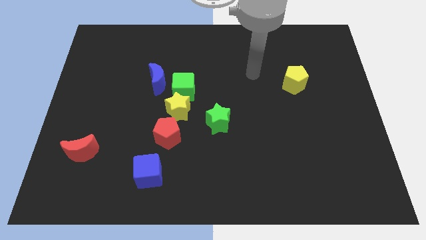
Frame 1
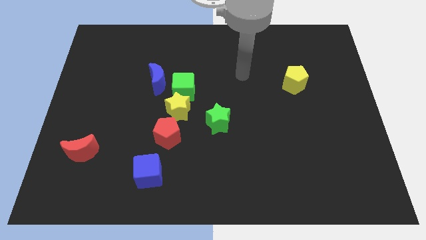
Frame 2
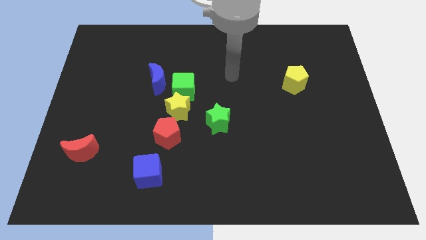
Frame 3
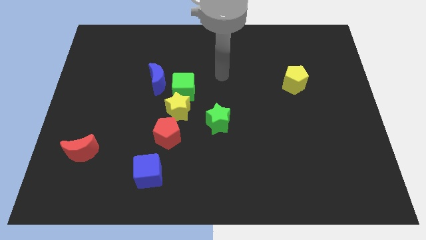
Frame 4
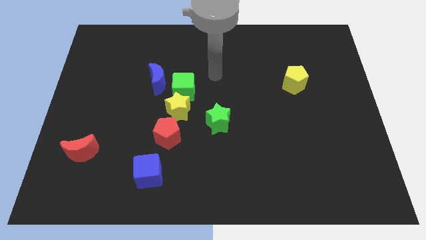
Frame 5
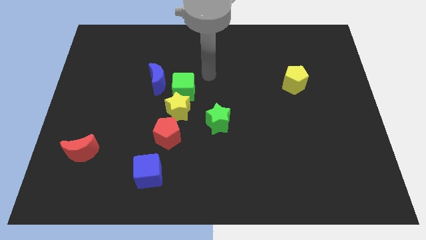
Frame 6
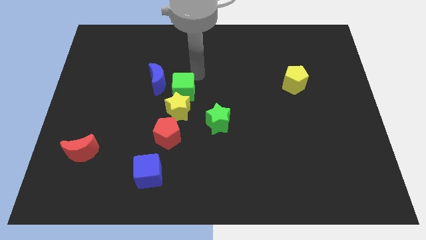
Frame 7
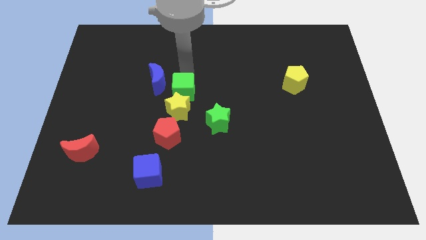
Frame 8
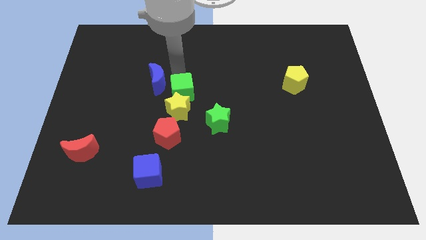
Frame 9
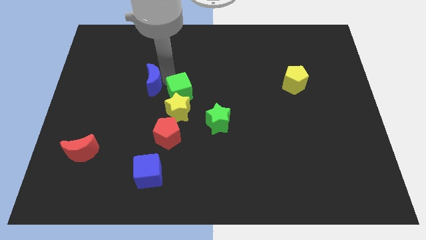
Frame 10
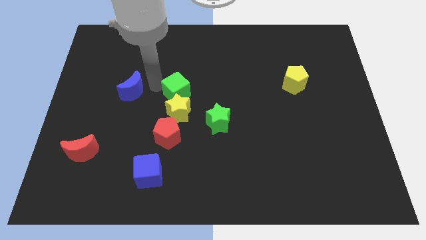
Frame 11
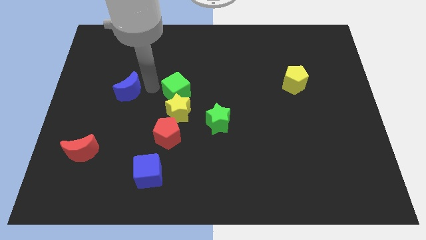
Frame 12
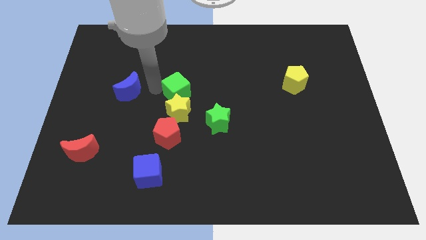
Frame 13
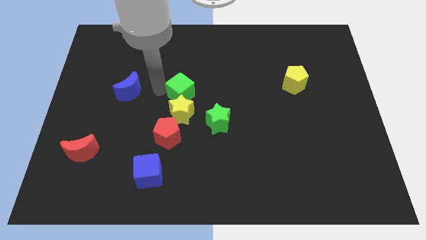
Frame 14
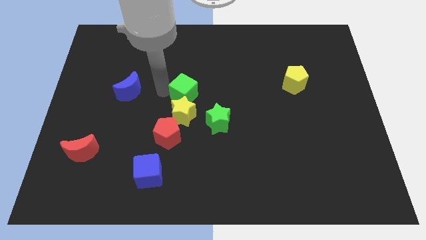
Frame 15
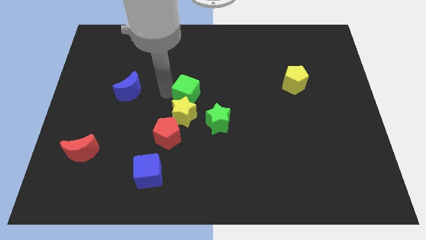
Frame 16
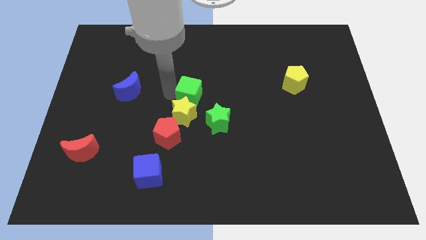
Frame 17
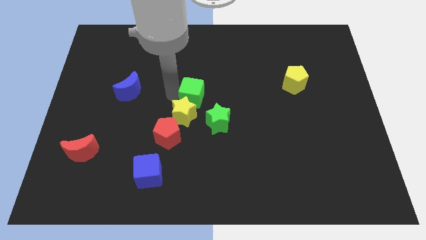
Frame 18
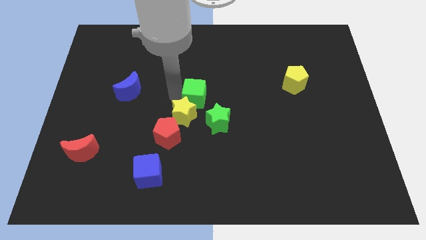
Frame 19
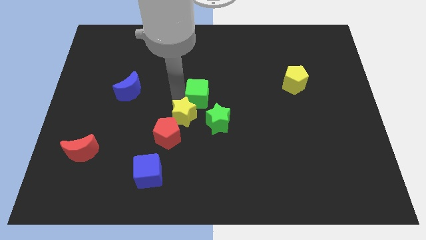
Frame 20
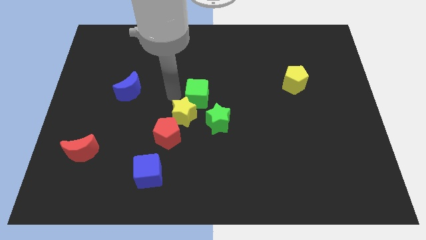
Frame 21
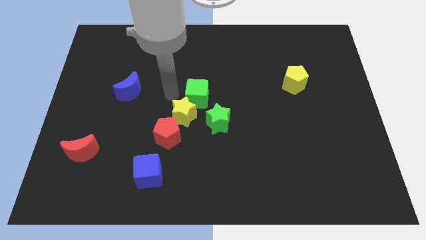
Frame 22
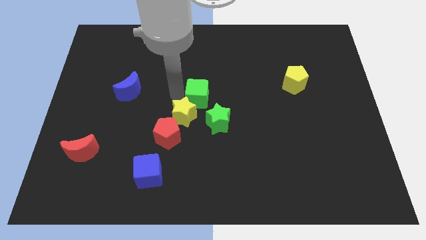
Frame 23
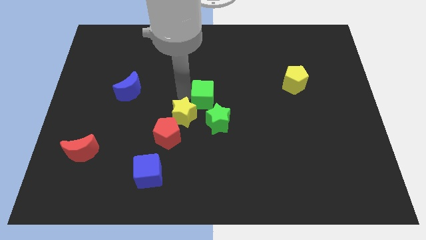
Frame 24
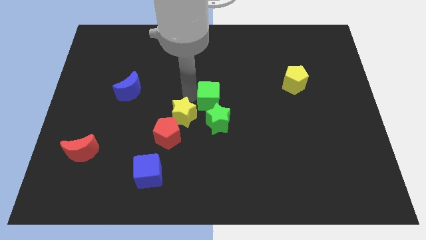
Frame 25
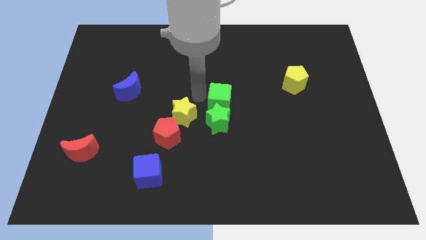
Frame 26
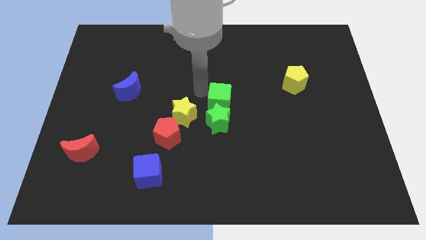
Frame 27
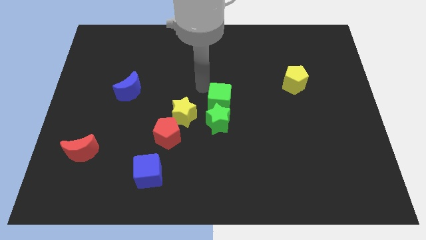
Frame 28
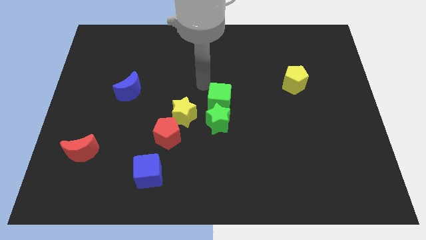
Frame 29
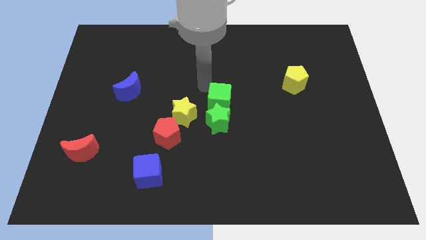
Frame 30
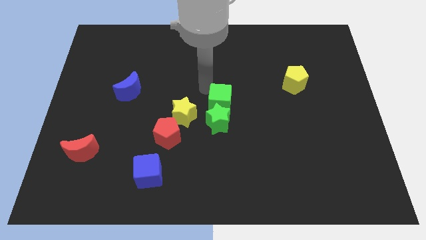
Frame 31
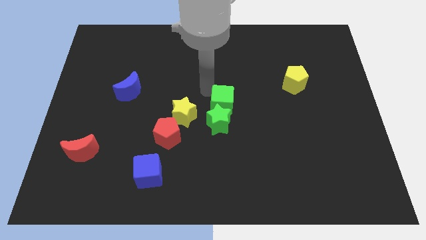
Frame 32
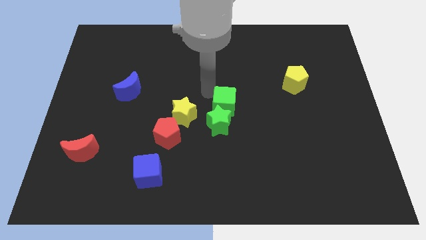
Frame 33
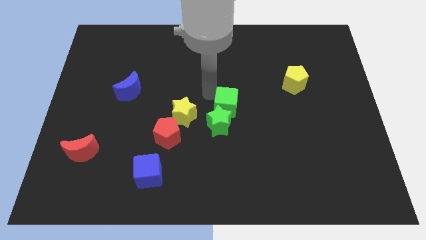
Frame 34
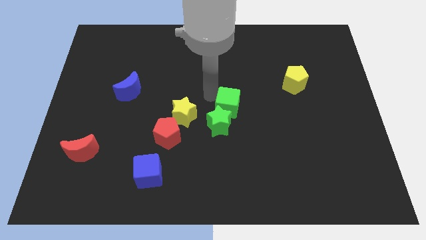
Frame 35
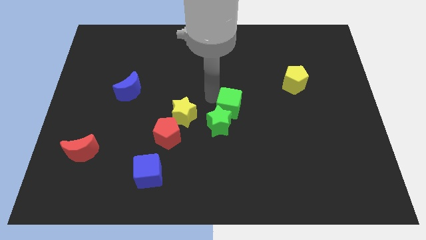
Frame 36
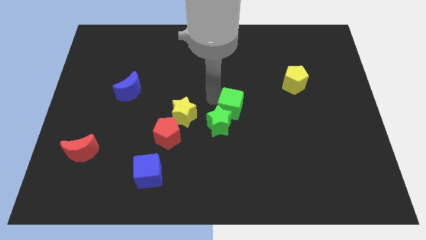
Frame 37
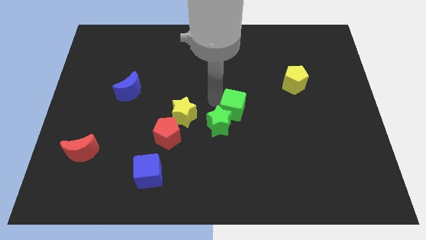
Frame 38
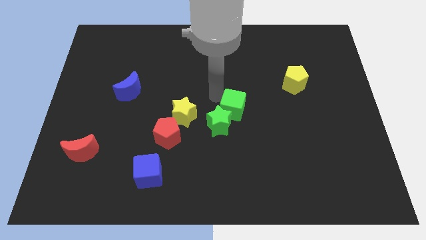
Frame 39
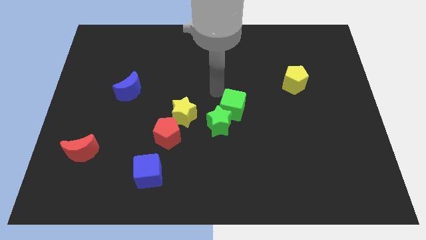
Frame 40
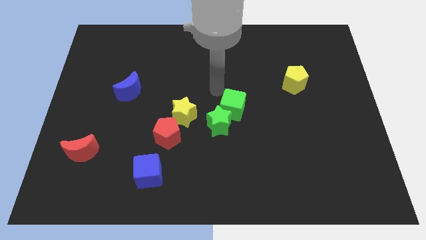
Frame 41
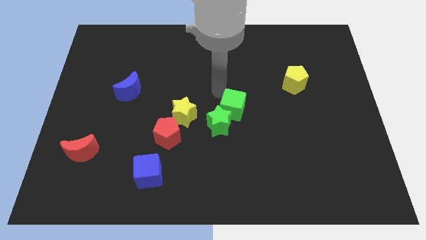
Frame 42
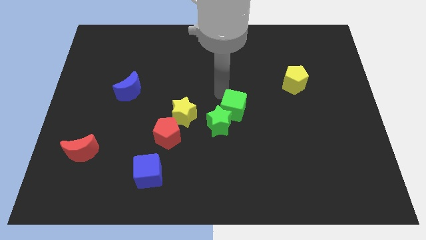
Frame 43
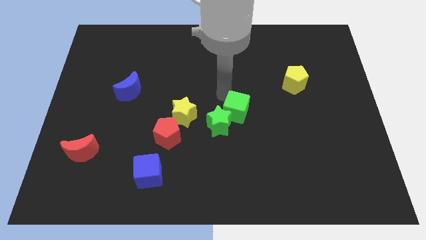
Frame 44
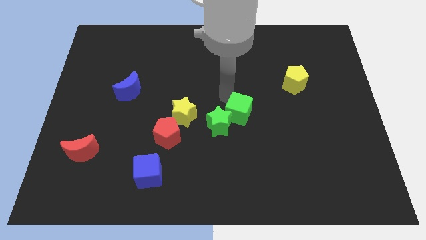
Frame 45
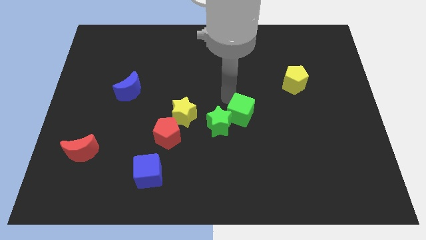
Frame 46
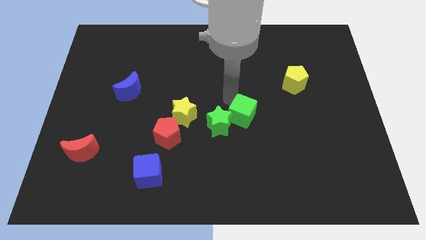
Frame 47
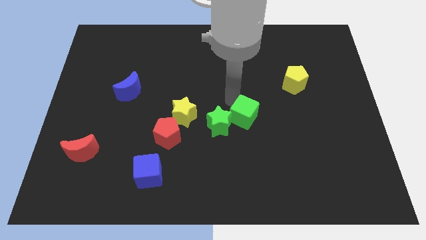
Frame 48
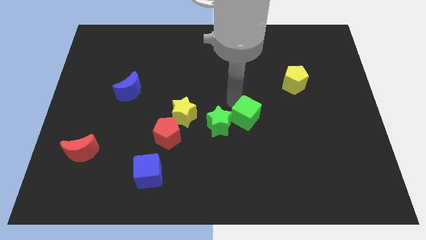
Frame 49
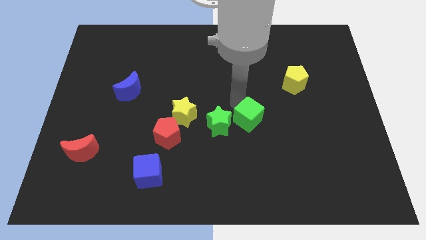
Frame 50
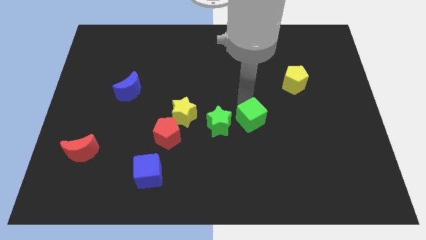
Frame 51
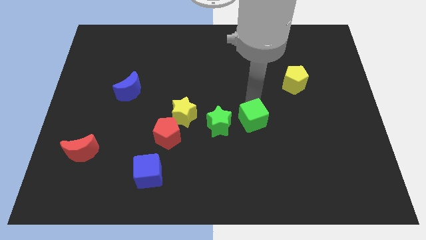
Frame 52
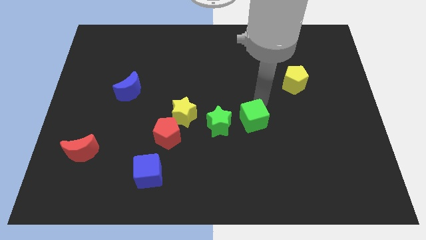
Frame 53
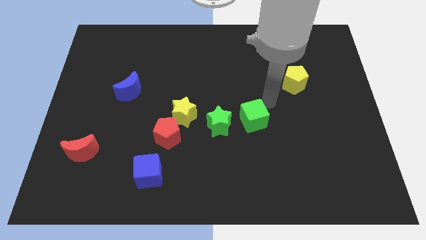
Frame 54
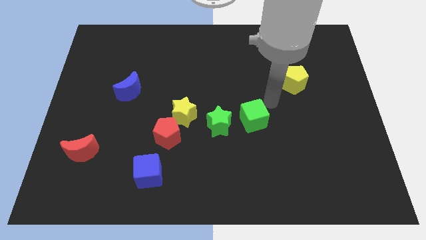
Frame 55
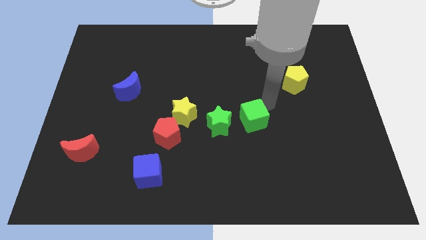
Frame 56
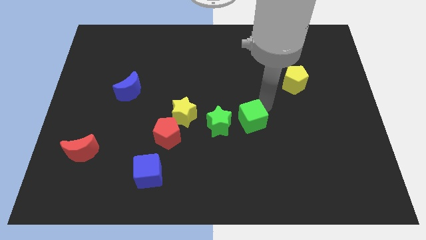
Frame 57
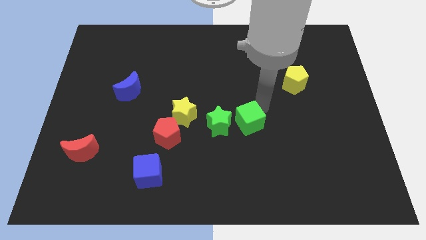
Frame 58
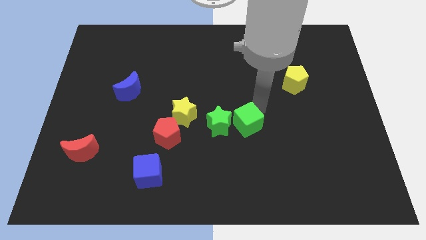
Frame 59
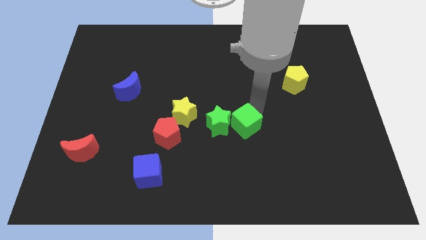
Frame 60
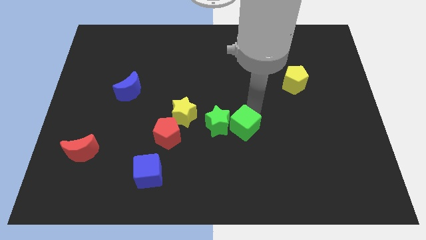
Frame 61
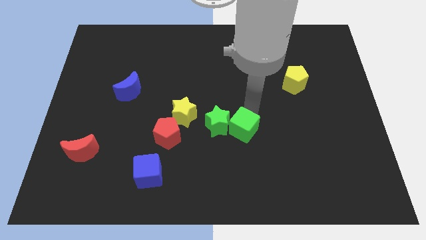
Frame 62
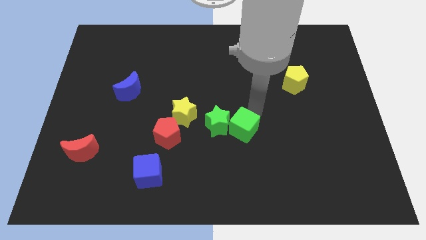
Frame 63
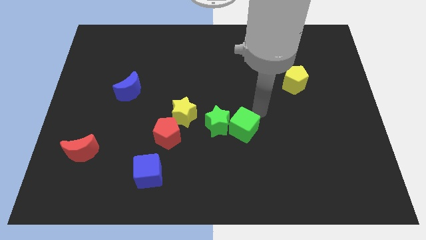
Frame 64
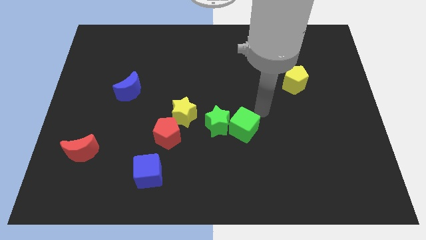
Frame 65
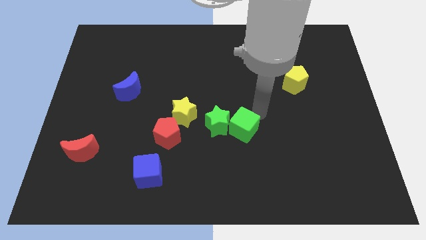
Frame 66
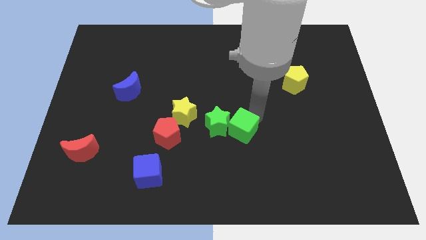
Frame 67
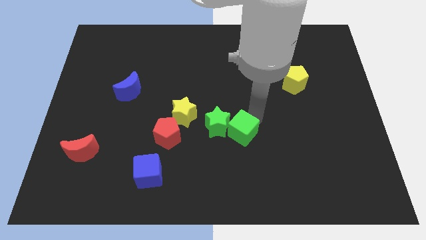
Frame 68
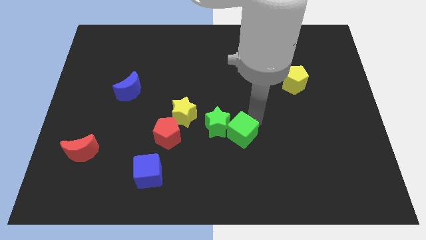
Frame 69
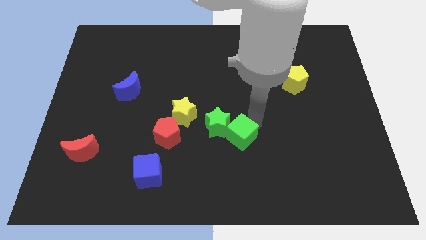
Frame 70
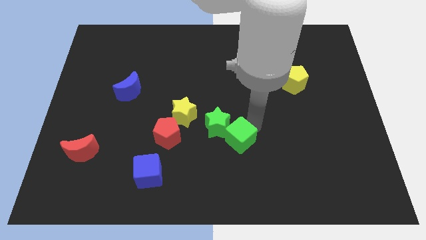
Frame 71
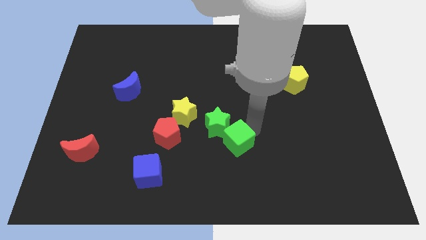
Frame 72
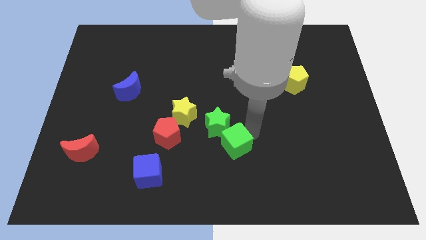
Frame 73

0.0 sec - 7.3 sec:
move the green cube a little downwards

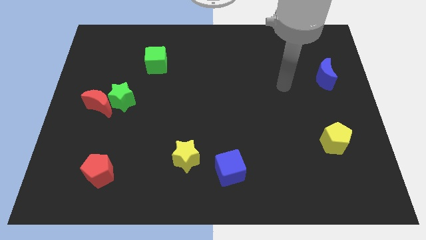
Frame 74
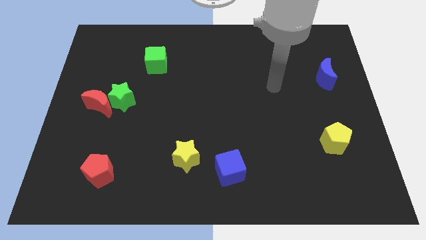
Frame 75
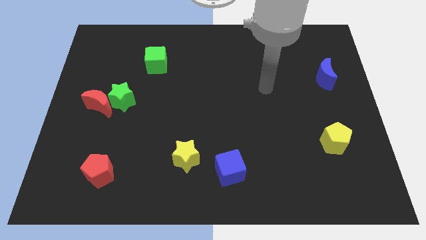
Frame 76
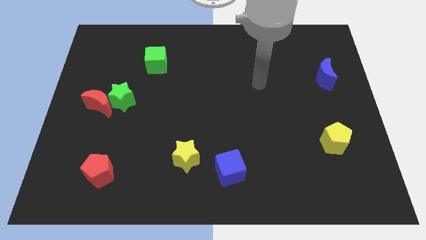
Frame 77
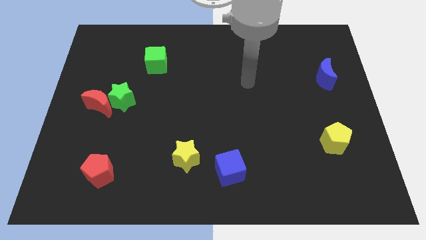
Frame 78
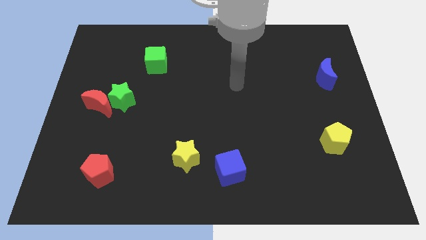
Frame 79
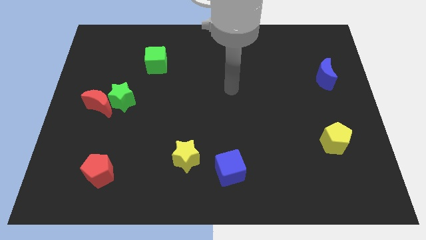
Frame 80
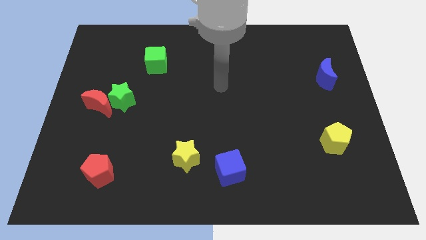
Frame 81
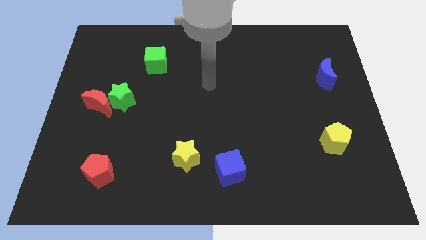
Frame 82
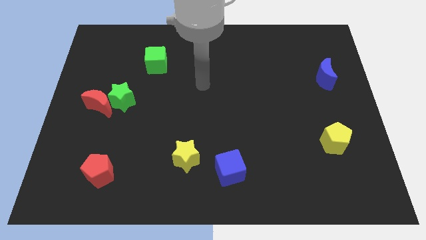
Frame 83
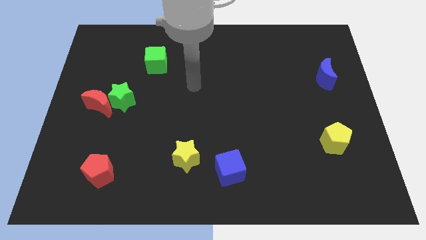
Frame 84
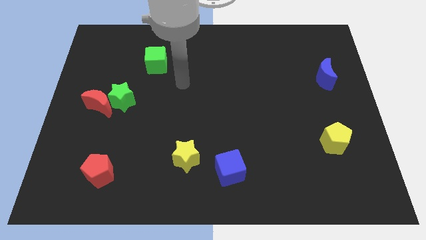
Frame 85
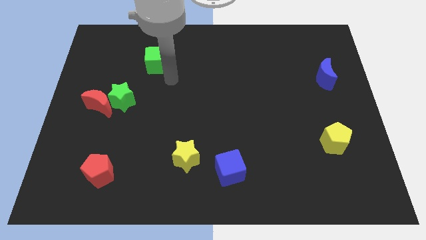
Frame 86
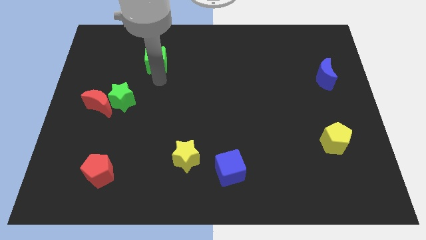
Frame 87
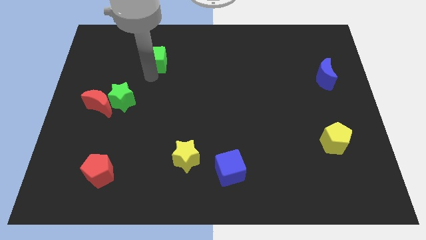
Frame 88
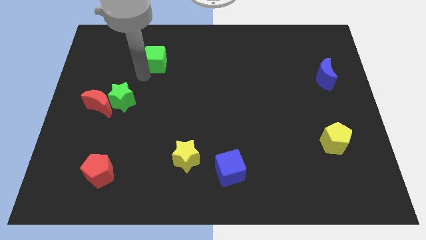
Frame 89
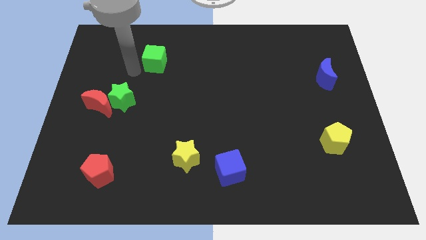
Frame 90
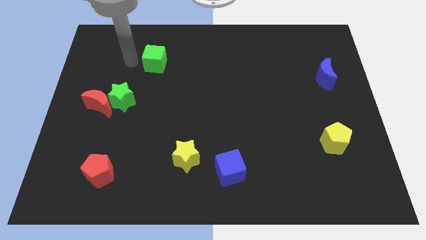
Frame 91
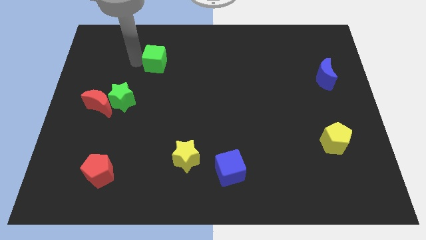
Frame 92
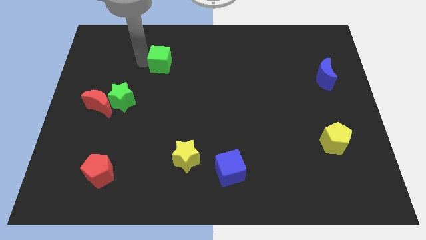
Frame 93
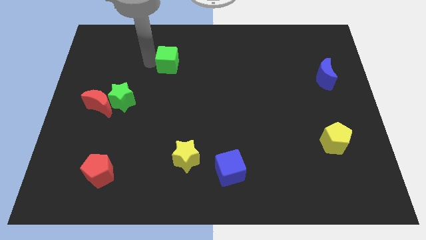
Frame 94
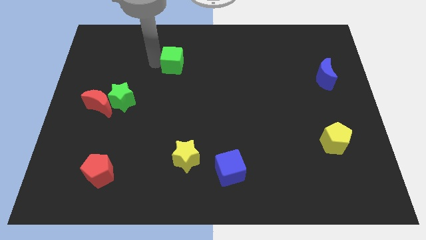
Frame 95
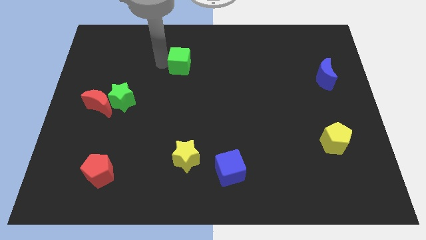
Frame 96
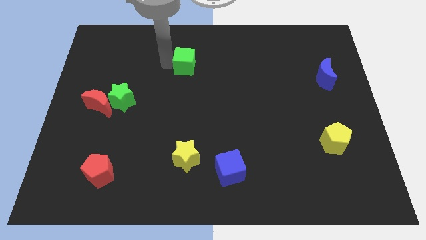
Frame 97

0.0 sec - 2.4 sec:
slide the green cube somewhat right
